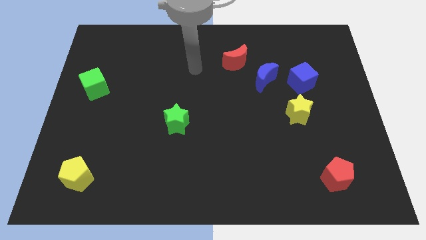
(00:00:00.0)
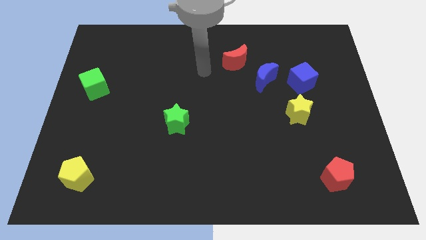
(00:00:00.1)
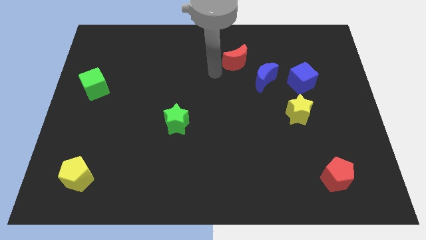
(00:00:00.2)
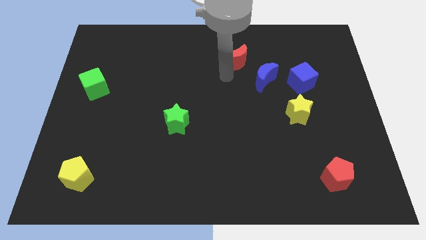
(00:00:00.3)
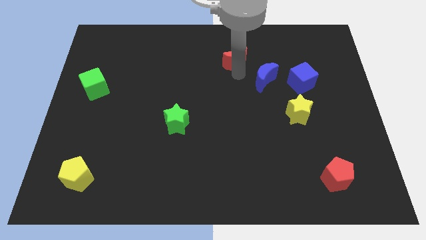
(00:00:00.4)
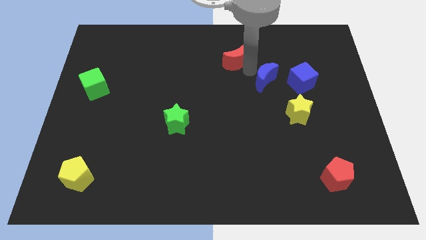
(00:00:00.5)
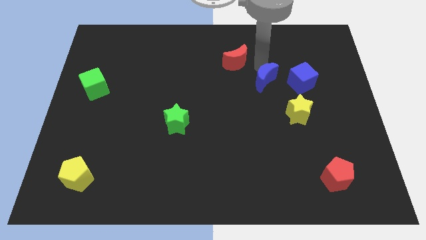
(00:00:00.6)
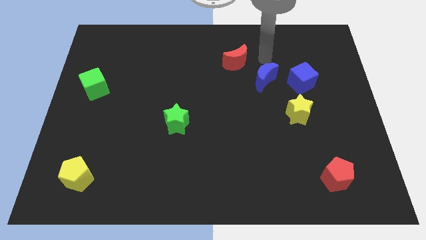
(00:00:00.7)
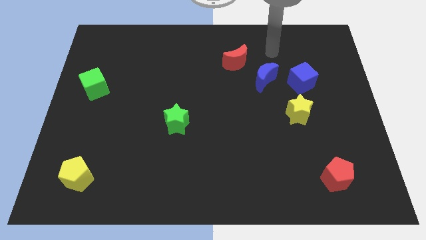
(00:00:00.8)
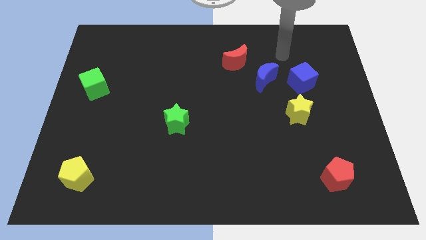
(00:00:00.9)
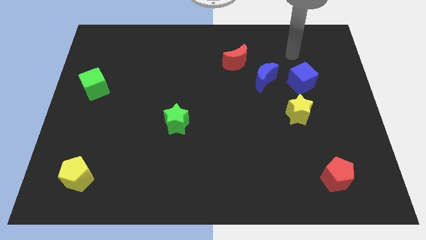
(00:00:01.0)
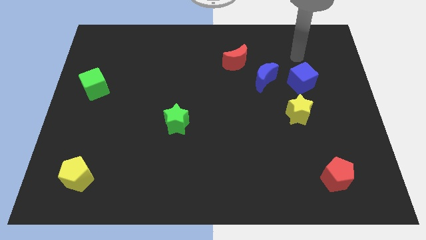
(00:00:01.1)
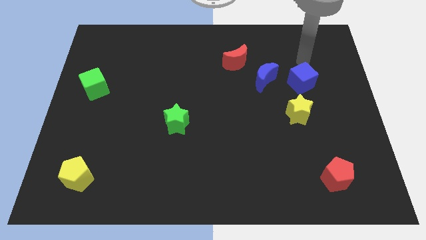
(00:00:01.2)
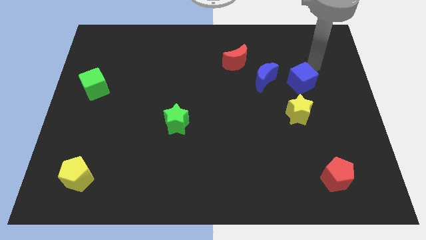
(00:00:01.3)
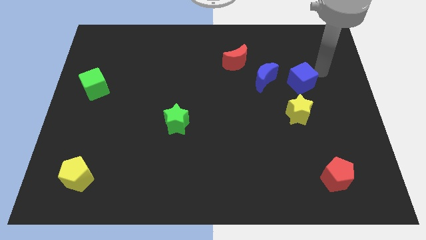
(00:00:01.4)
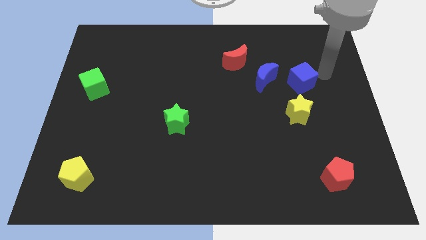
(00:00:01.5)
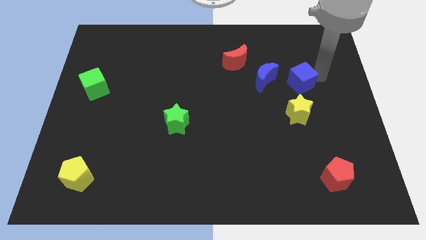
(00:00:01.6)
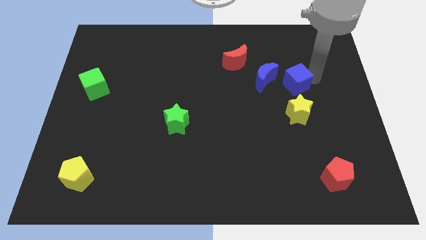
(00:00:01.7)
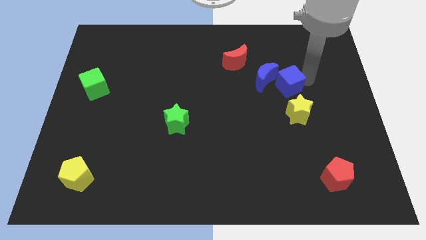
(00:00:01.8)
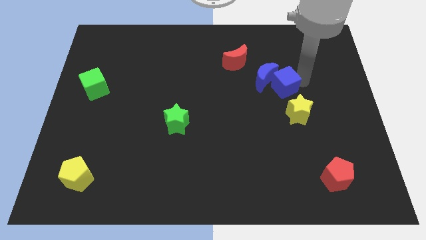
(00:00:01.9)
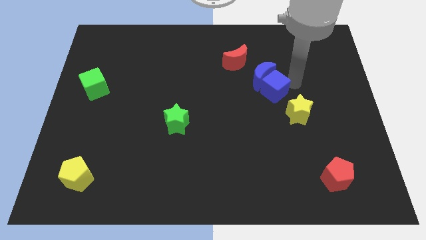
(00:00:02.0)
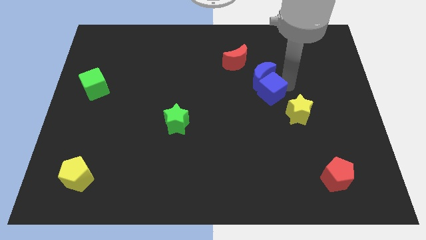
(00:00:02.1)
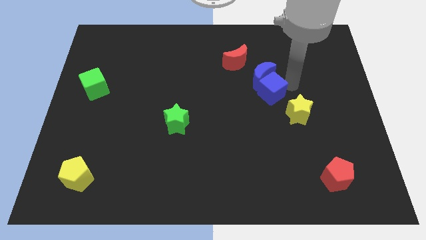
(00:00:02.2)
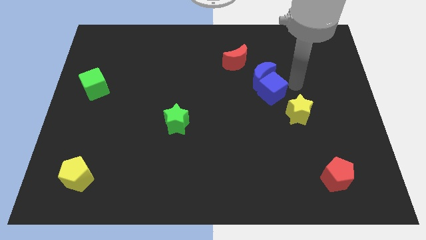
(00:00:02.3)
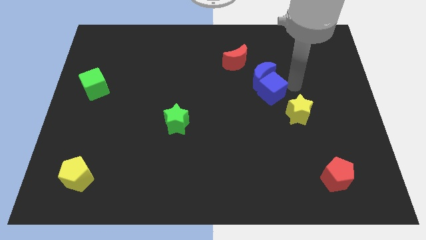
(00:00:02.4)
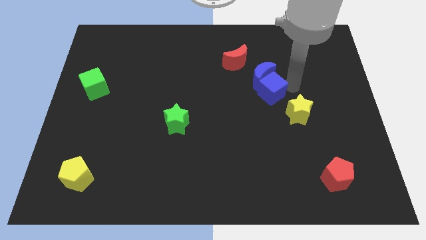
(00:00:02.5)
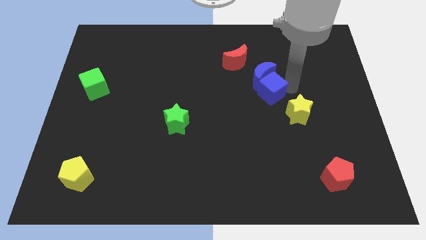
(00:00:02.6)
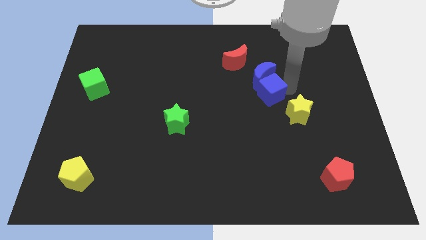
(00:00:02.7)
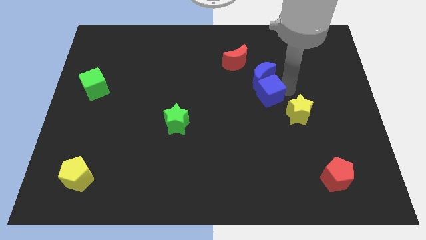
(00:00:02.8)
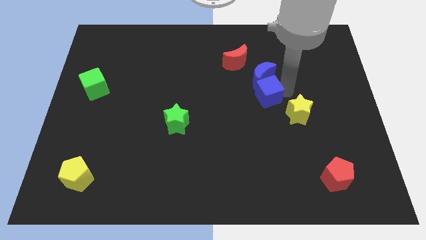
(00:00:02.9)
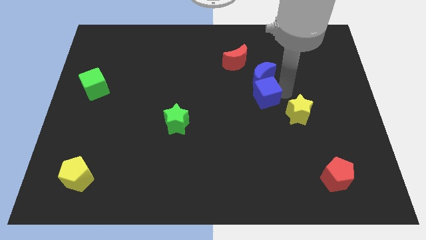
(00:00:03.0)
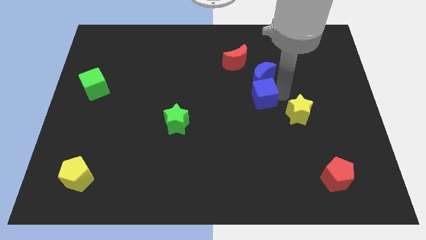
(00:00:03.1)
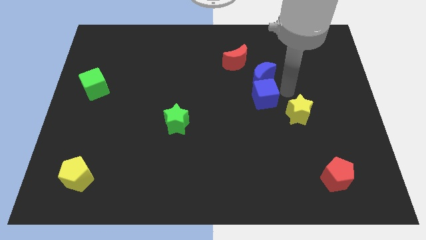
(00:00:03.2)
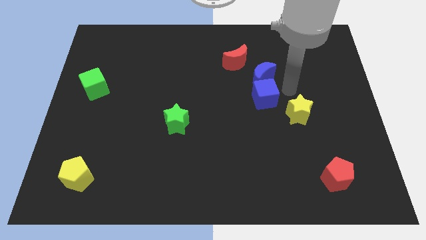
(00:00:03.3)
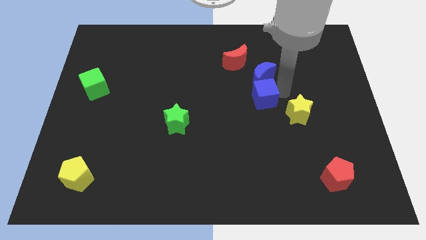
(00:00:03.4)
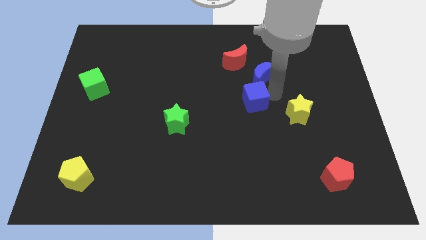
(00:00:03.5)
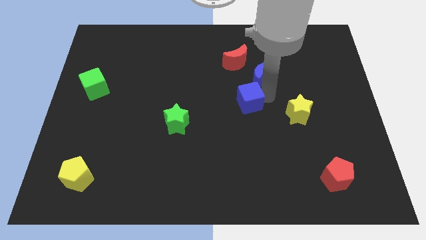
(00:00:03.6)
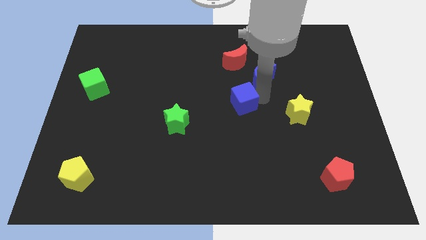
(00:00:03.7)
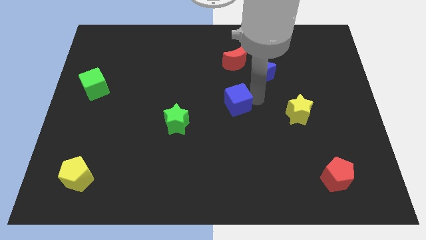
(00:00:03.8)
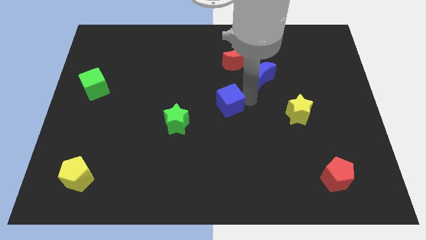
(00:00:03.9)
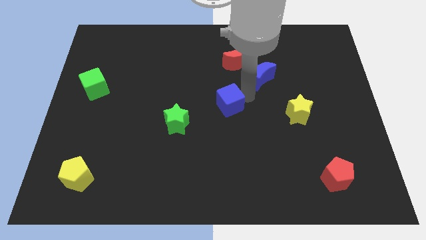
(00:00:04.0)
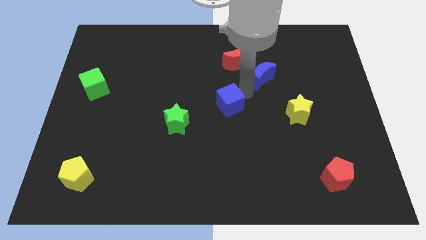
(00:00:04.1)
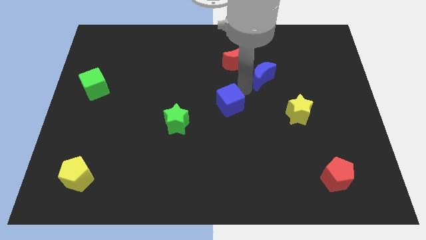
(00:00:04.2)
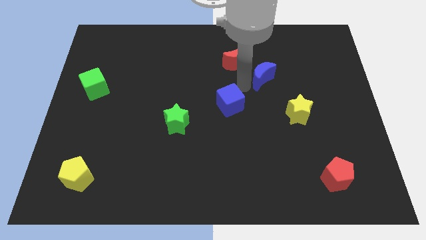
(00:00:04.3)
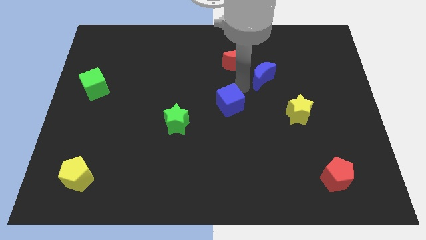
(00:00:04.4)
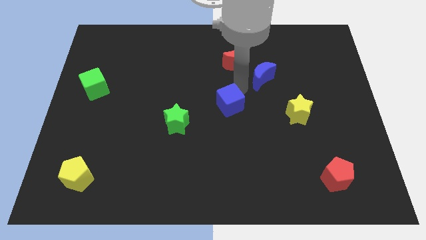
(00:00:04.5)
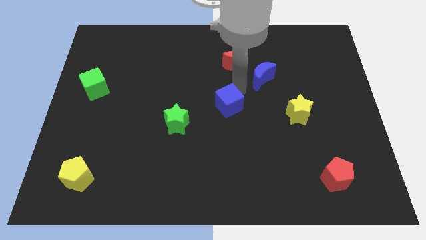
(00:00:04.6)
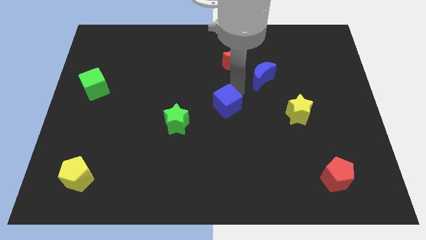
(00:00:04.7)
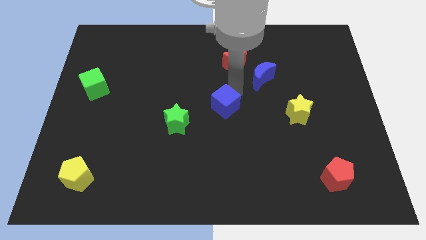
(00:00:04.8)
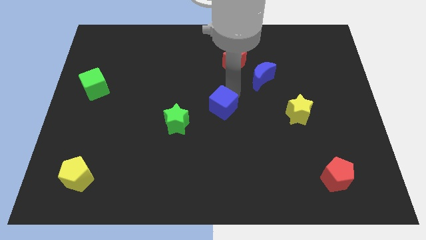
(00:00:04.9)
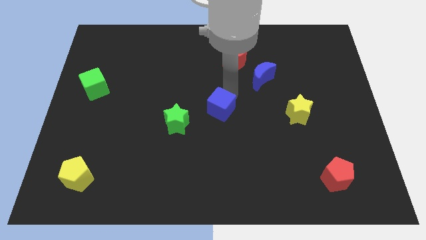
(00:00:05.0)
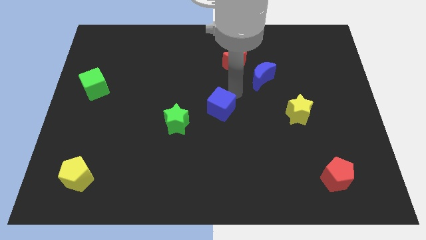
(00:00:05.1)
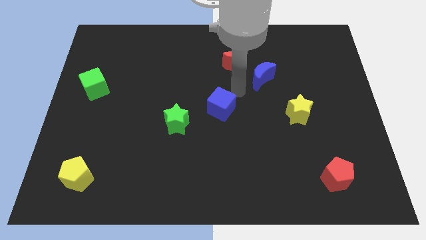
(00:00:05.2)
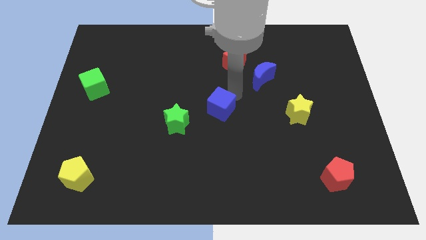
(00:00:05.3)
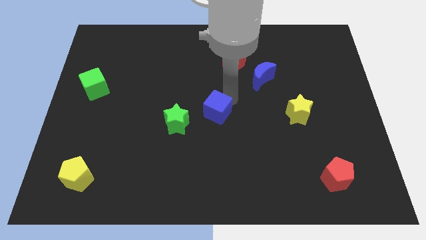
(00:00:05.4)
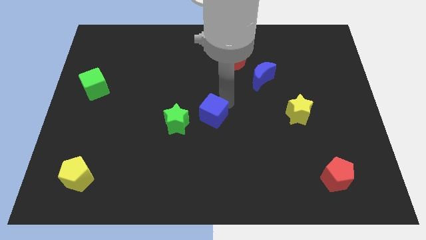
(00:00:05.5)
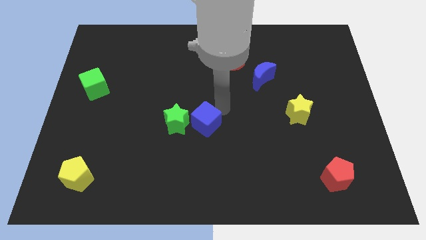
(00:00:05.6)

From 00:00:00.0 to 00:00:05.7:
slide the blue cube towards the green star

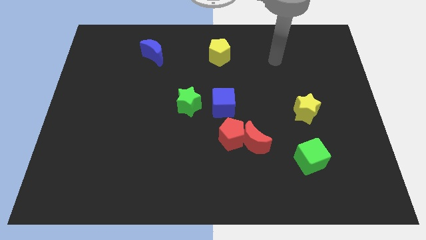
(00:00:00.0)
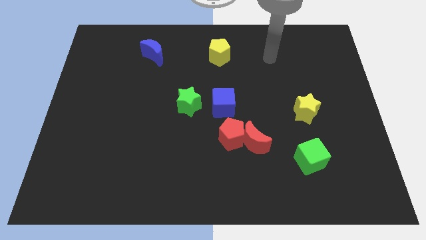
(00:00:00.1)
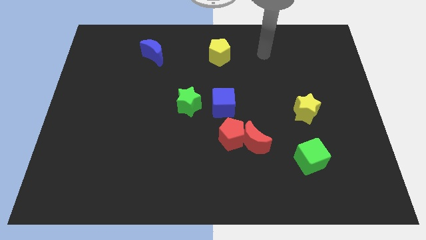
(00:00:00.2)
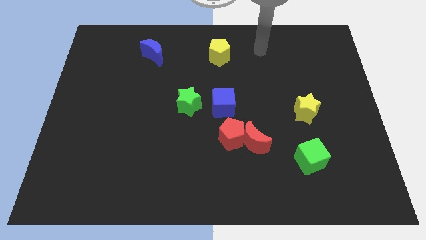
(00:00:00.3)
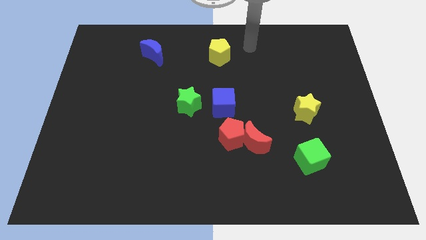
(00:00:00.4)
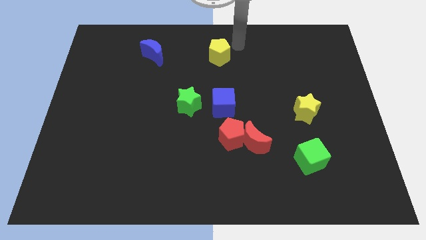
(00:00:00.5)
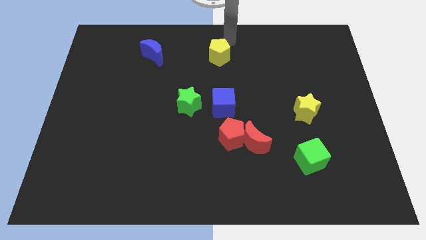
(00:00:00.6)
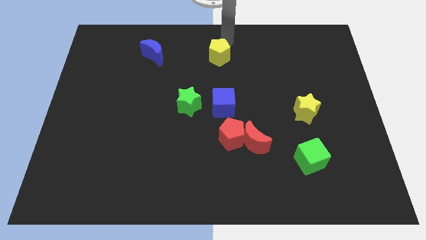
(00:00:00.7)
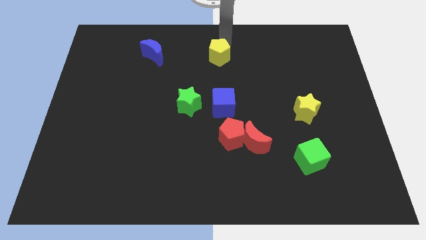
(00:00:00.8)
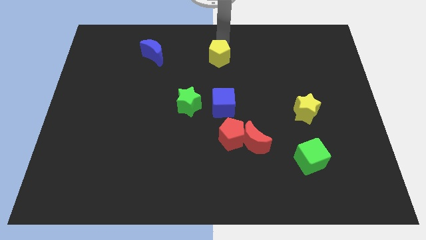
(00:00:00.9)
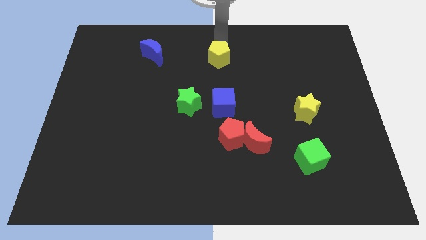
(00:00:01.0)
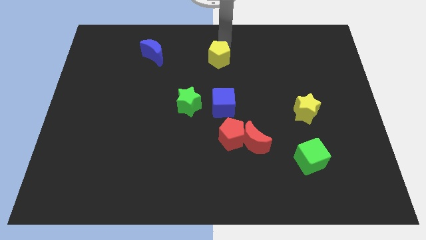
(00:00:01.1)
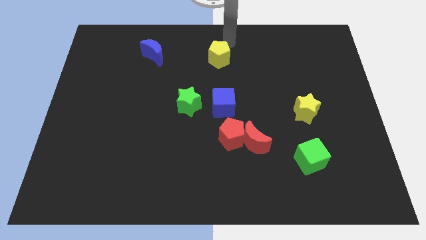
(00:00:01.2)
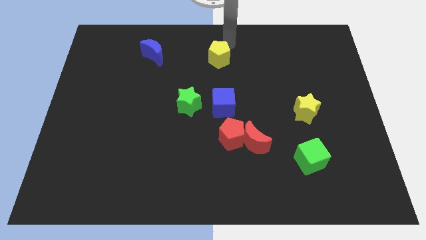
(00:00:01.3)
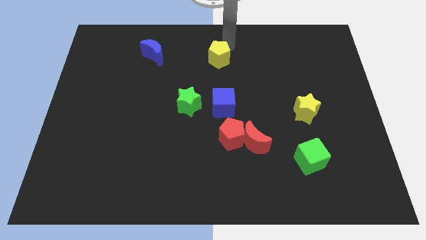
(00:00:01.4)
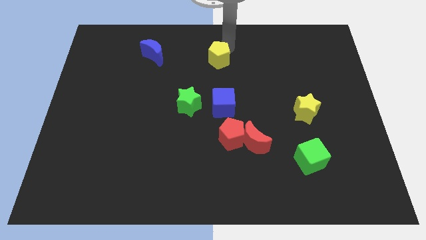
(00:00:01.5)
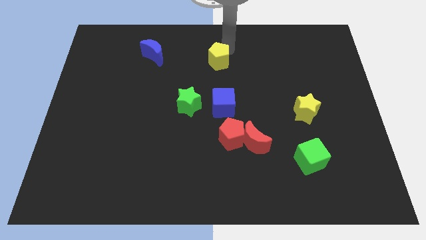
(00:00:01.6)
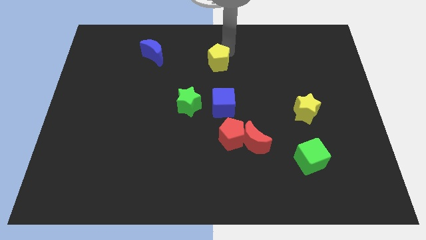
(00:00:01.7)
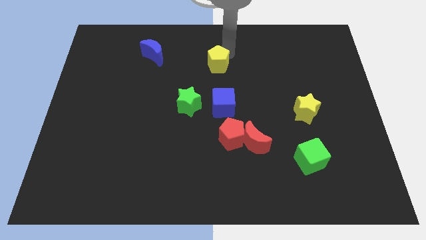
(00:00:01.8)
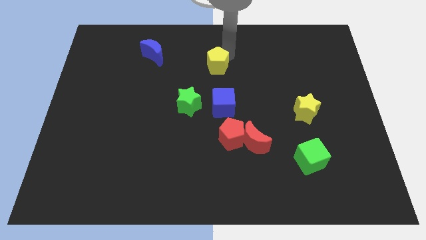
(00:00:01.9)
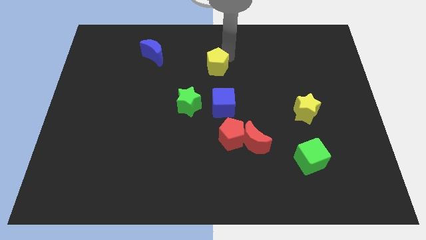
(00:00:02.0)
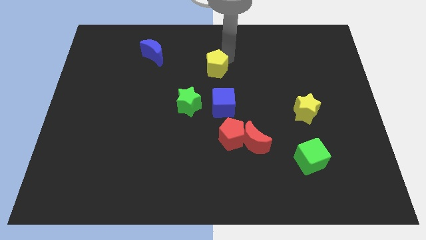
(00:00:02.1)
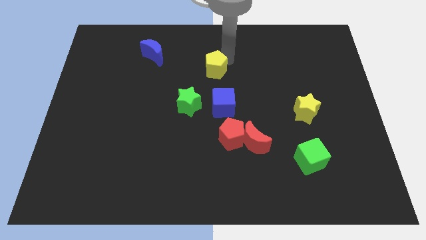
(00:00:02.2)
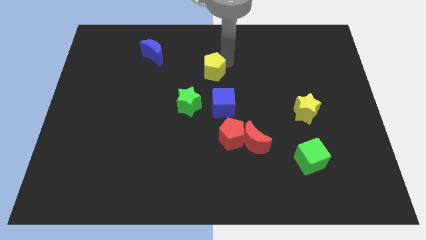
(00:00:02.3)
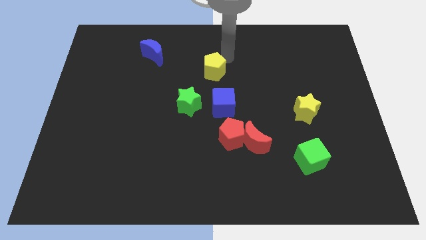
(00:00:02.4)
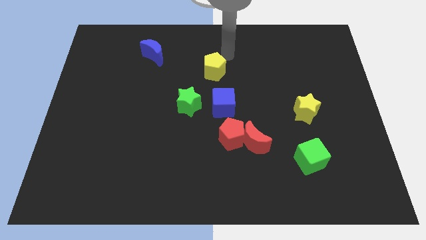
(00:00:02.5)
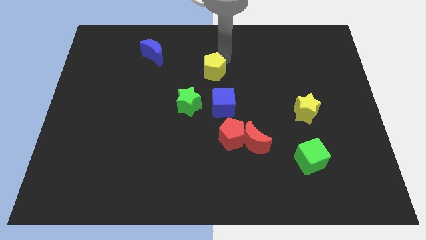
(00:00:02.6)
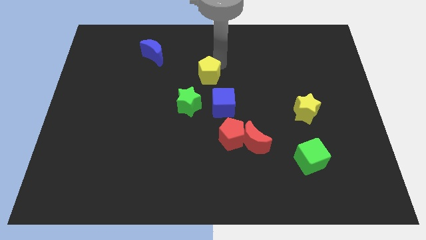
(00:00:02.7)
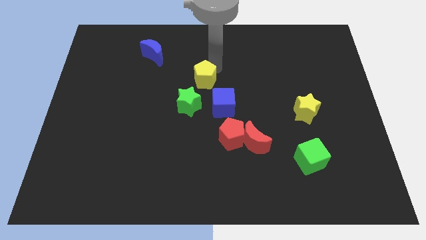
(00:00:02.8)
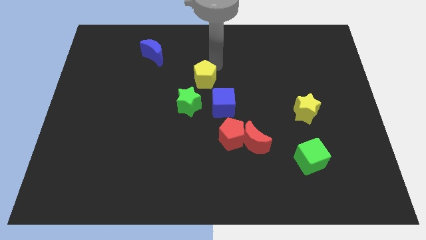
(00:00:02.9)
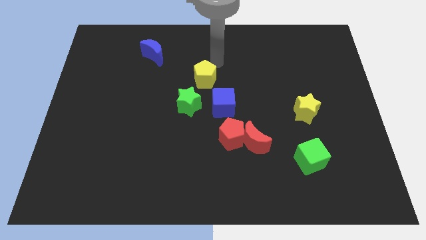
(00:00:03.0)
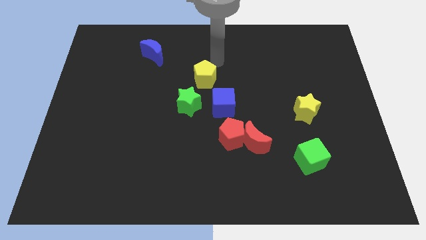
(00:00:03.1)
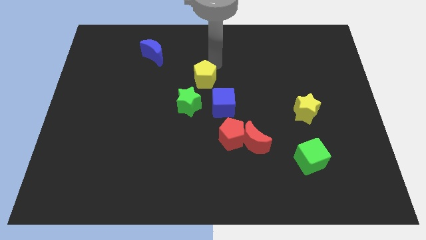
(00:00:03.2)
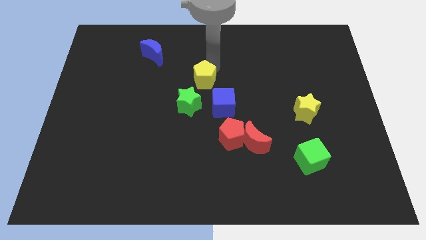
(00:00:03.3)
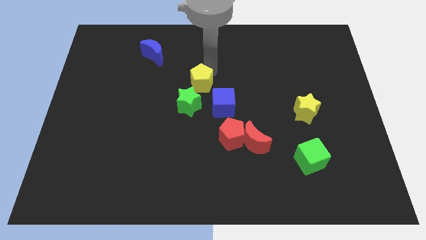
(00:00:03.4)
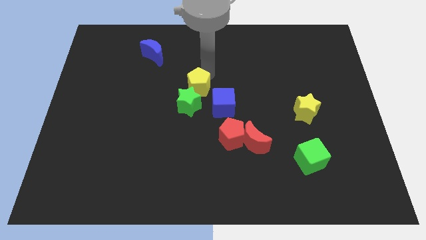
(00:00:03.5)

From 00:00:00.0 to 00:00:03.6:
move the yellow pentagon to the green star
